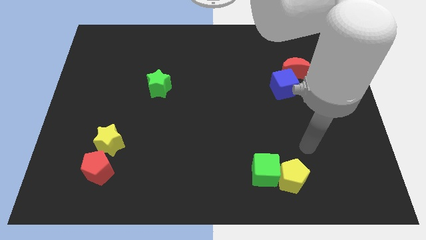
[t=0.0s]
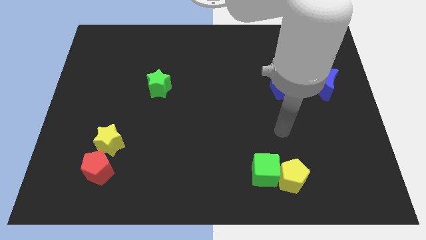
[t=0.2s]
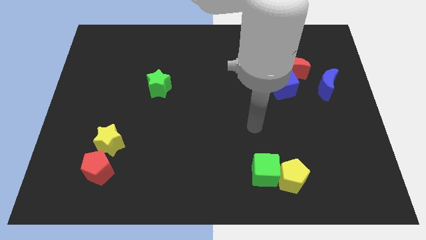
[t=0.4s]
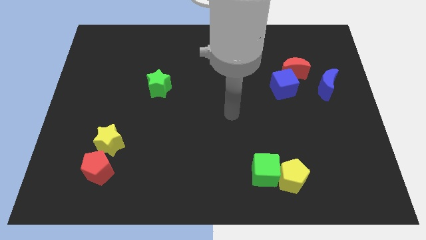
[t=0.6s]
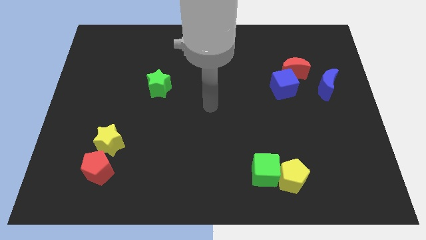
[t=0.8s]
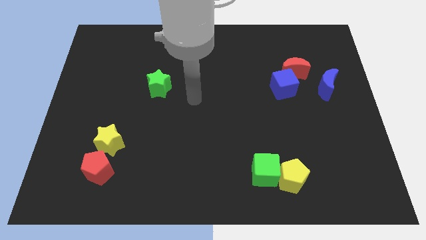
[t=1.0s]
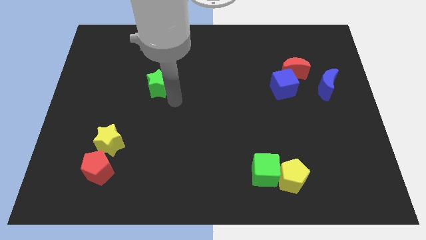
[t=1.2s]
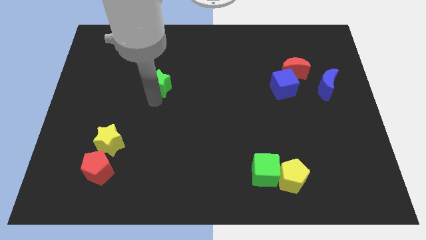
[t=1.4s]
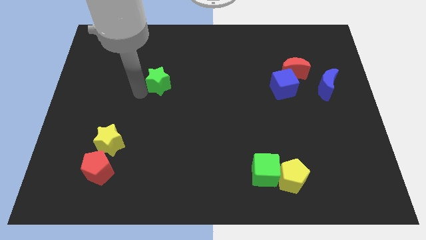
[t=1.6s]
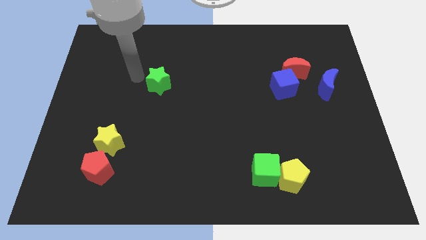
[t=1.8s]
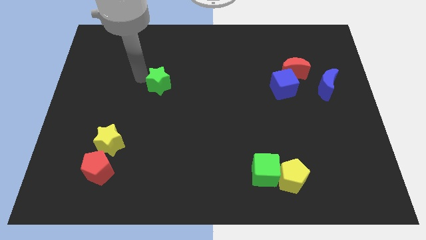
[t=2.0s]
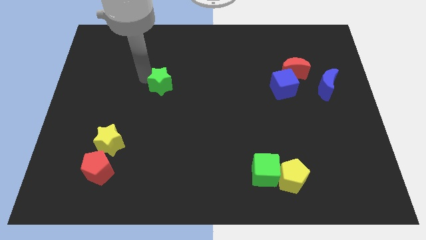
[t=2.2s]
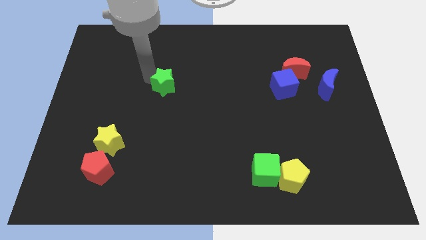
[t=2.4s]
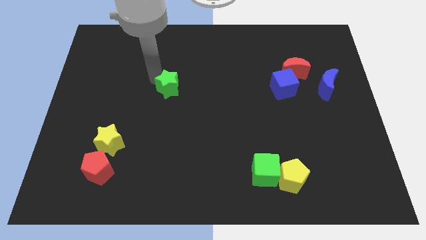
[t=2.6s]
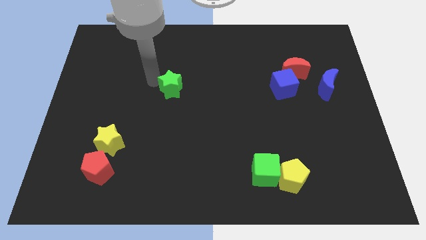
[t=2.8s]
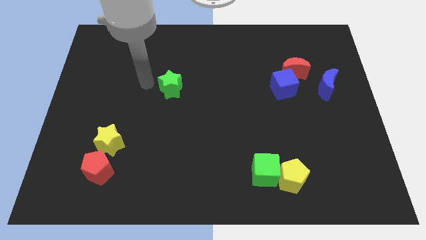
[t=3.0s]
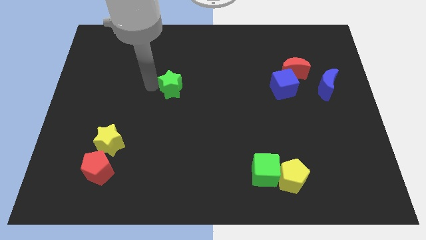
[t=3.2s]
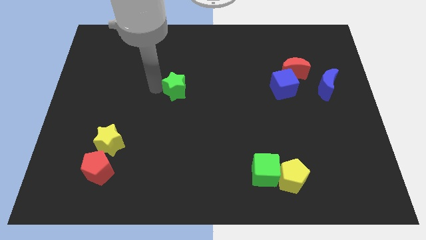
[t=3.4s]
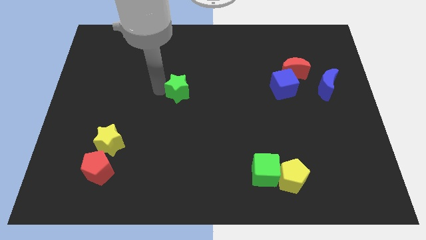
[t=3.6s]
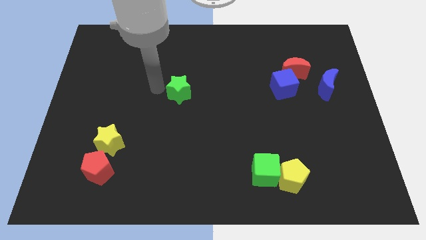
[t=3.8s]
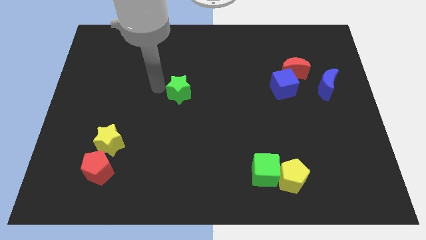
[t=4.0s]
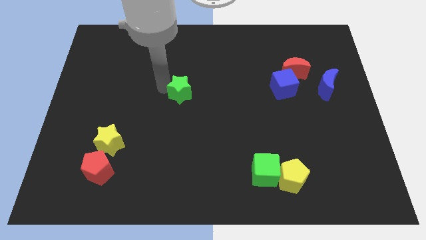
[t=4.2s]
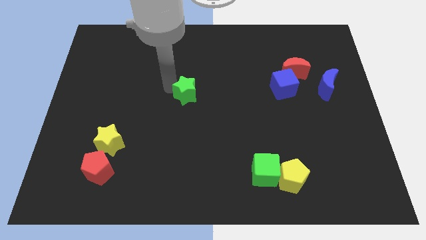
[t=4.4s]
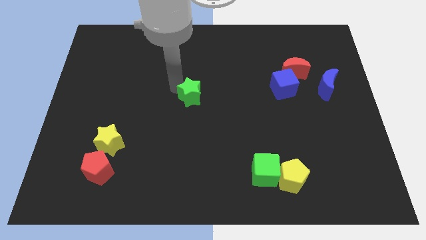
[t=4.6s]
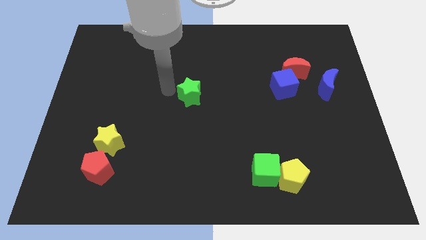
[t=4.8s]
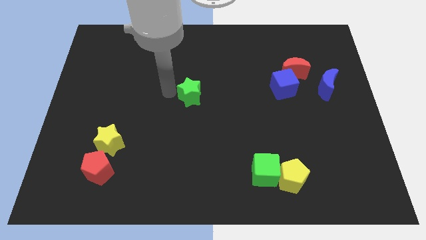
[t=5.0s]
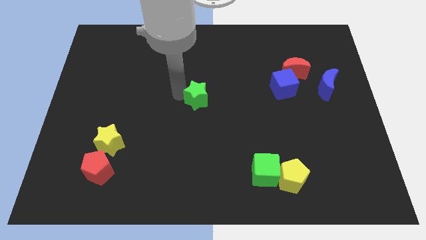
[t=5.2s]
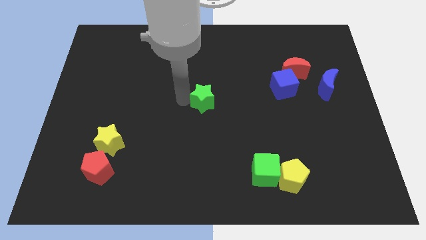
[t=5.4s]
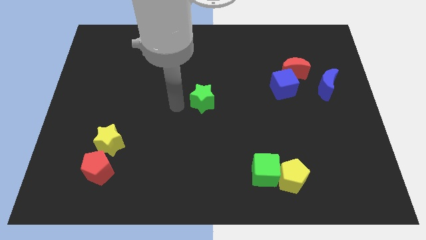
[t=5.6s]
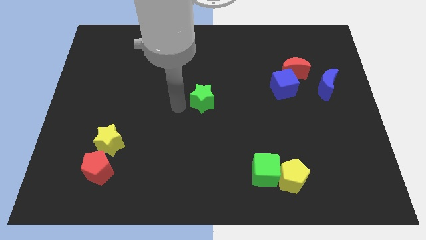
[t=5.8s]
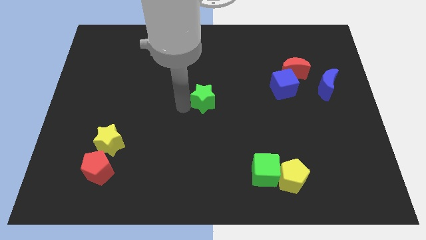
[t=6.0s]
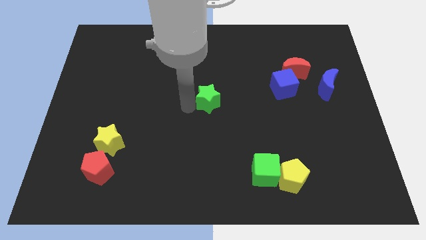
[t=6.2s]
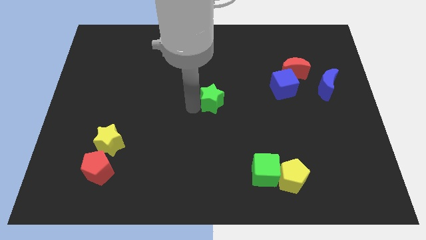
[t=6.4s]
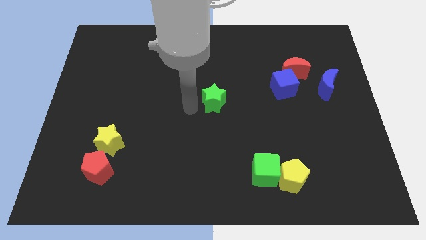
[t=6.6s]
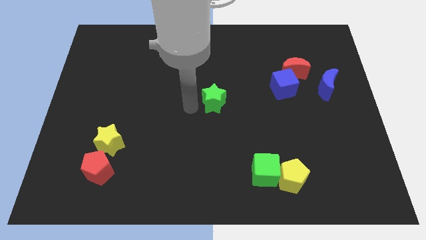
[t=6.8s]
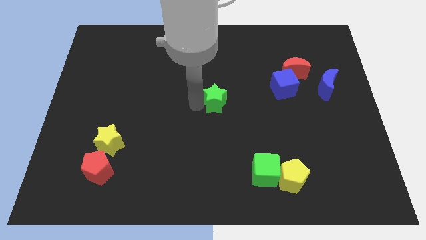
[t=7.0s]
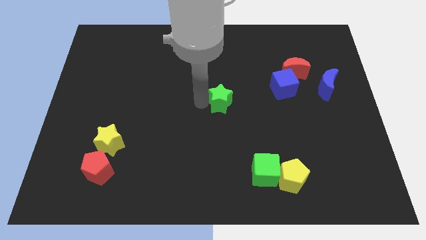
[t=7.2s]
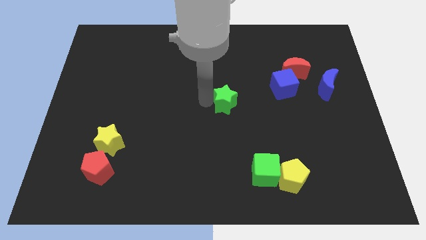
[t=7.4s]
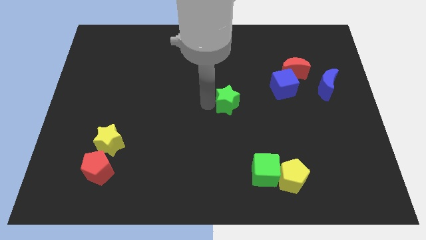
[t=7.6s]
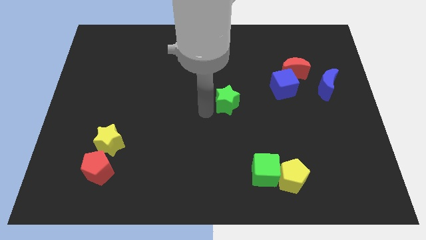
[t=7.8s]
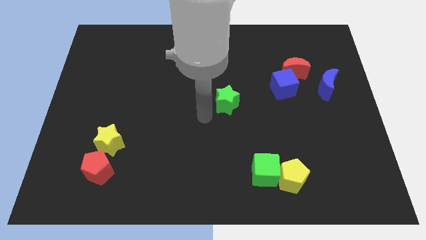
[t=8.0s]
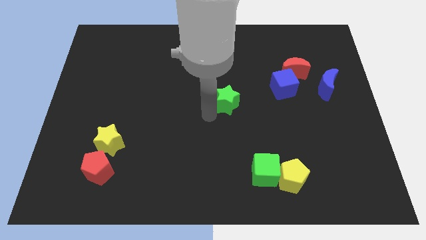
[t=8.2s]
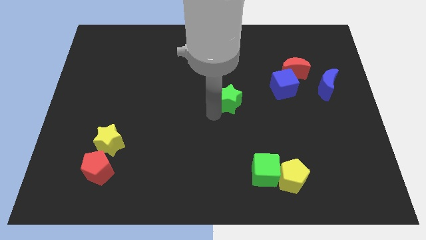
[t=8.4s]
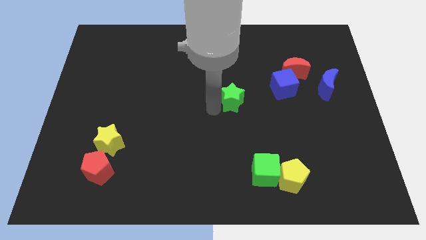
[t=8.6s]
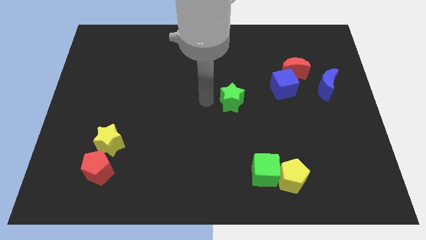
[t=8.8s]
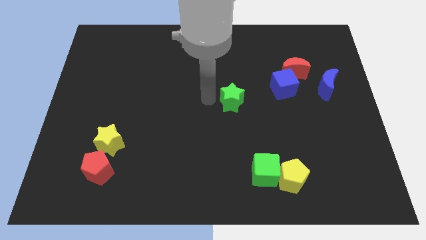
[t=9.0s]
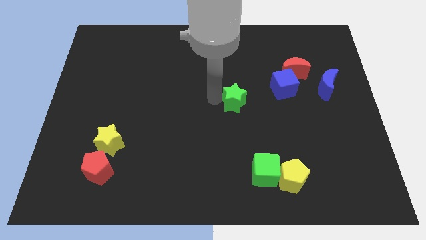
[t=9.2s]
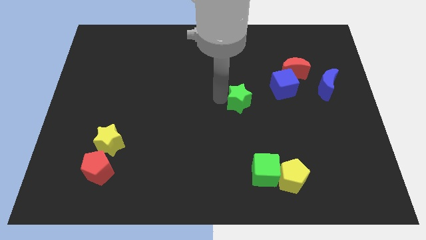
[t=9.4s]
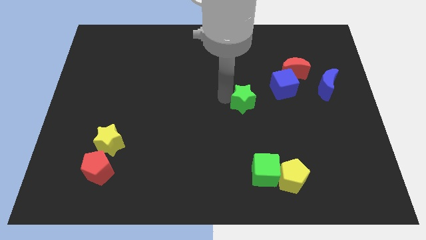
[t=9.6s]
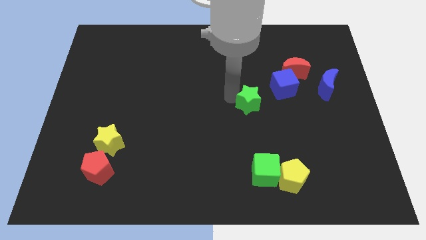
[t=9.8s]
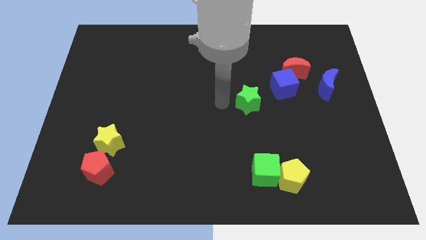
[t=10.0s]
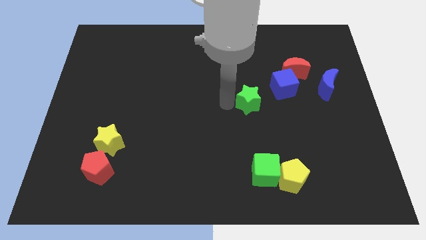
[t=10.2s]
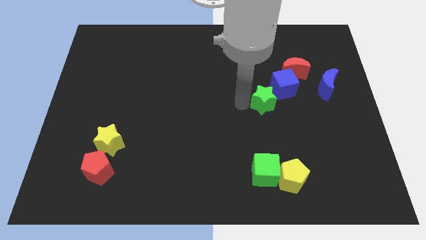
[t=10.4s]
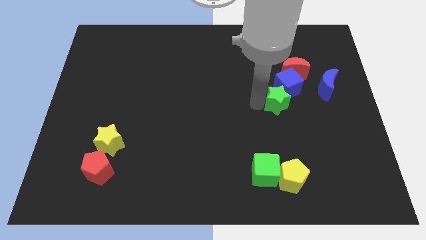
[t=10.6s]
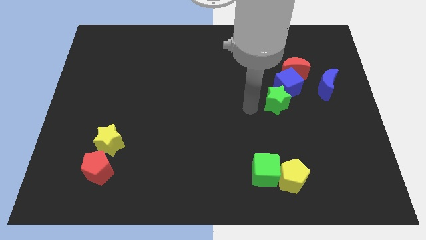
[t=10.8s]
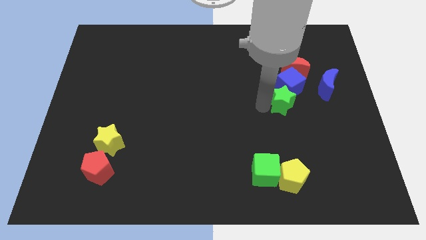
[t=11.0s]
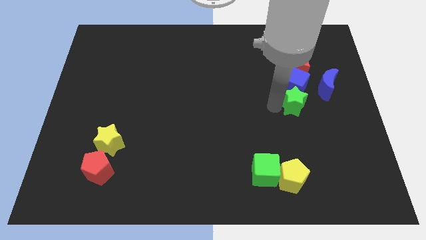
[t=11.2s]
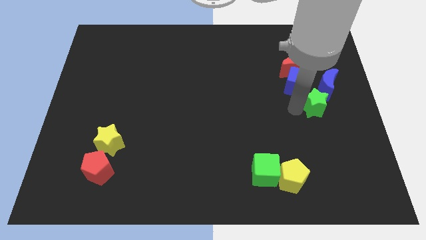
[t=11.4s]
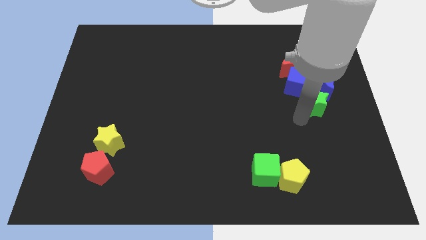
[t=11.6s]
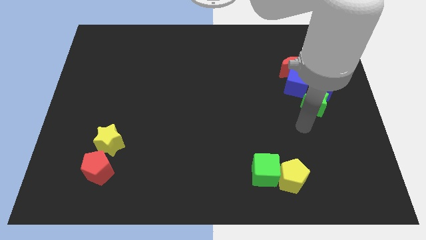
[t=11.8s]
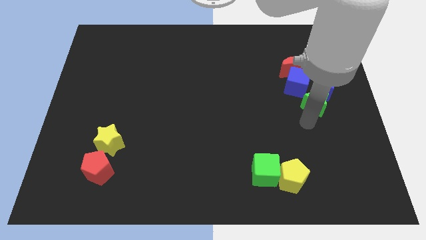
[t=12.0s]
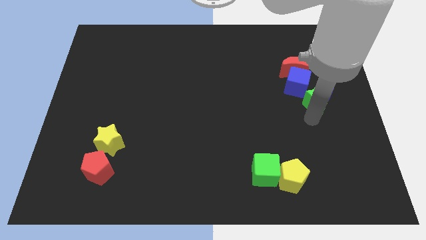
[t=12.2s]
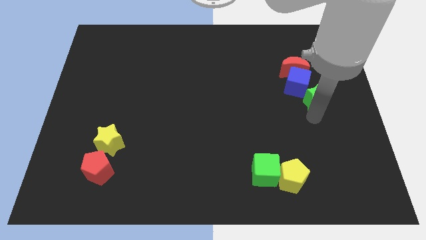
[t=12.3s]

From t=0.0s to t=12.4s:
put the green star close to the blue moon

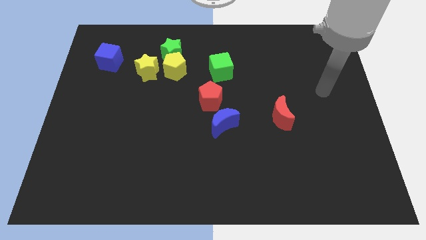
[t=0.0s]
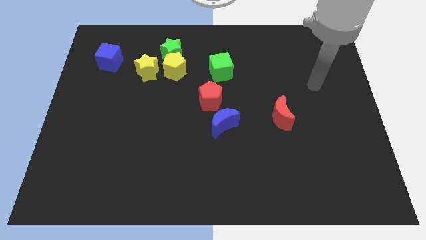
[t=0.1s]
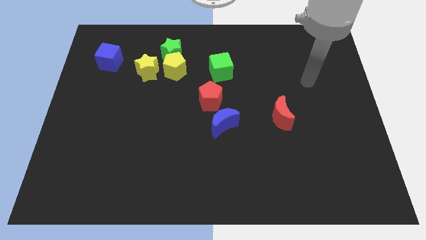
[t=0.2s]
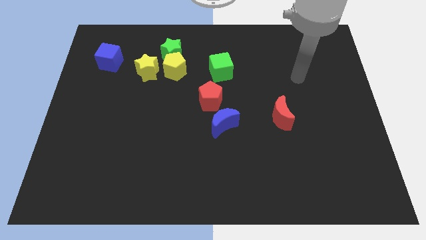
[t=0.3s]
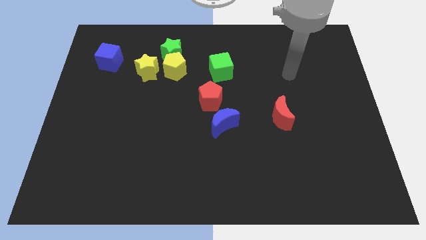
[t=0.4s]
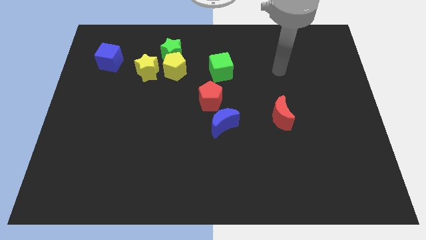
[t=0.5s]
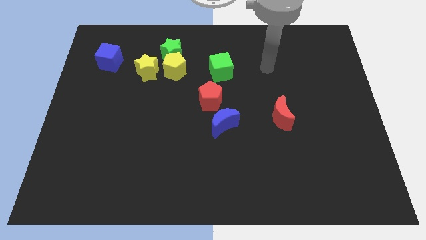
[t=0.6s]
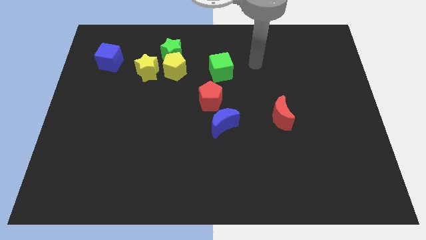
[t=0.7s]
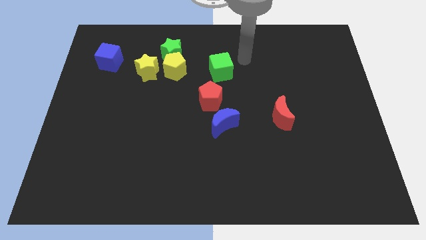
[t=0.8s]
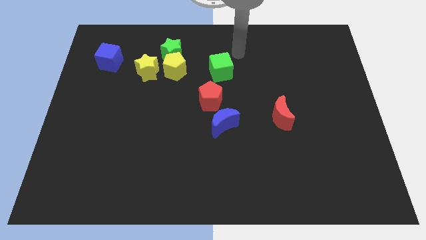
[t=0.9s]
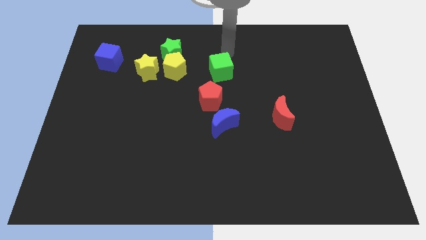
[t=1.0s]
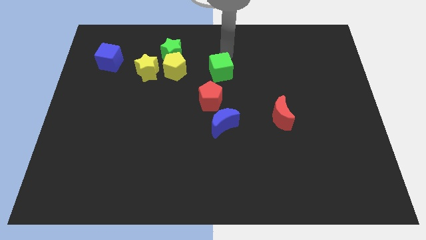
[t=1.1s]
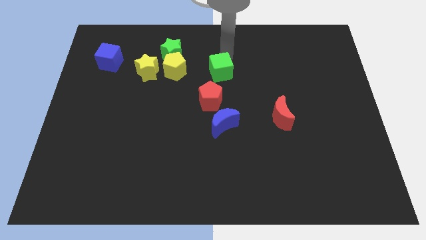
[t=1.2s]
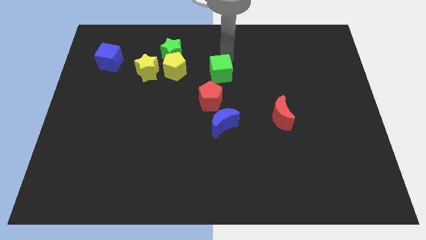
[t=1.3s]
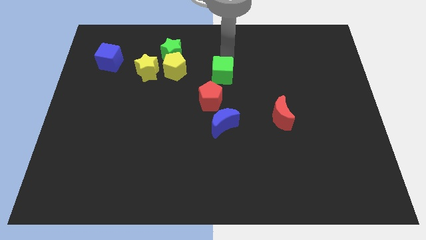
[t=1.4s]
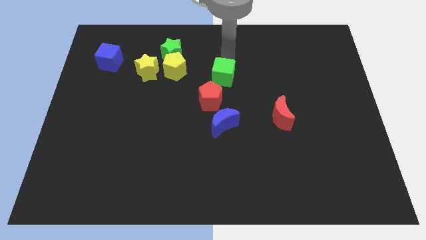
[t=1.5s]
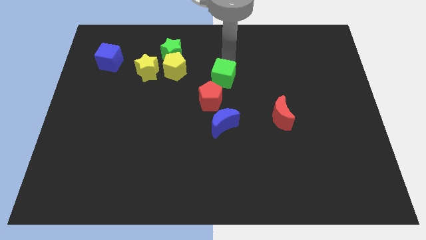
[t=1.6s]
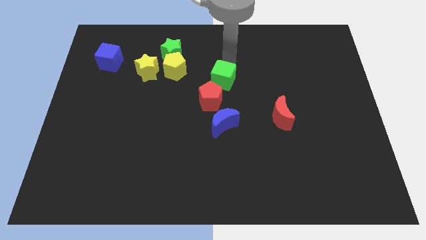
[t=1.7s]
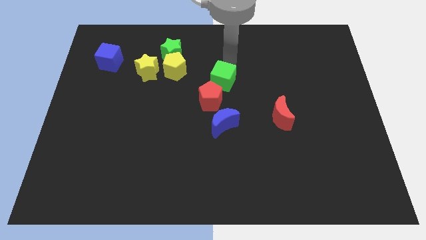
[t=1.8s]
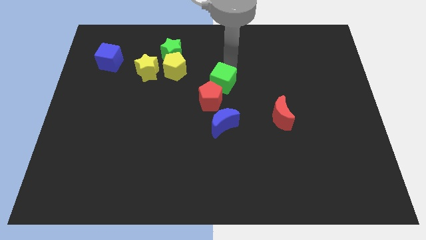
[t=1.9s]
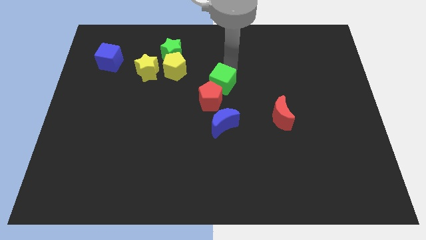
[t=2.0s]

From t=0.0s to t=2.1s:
move the green cube towards the red pentagon
